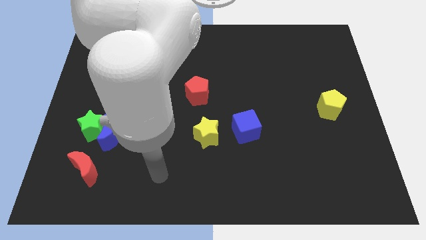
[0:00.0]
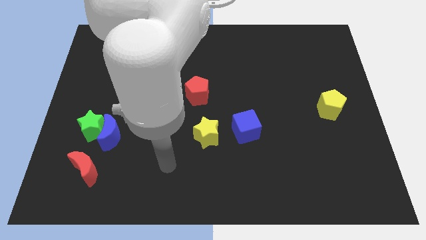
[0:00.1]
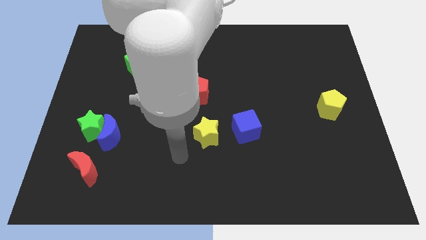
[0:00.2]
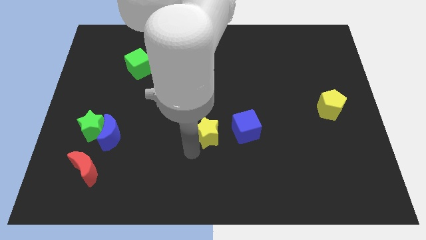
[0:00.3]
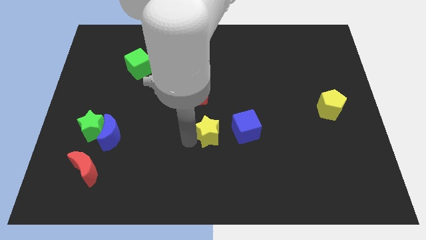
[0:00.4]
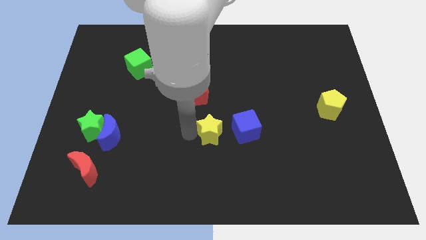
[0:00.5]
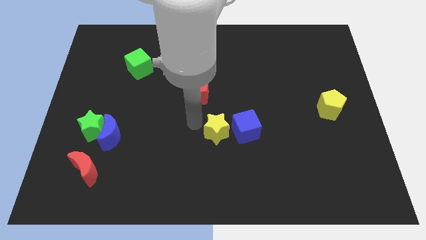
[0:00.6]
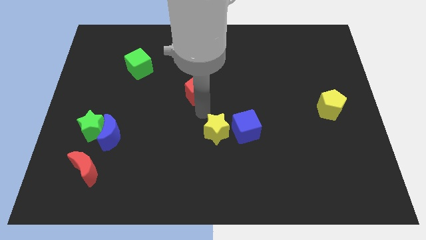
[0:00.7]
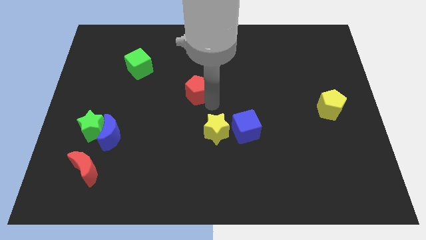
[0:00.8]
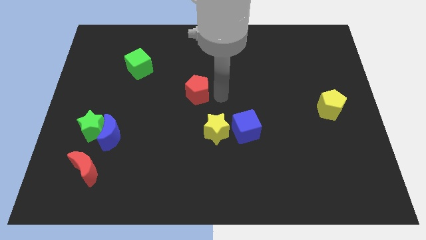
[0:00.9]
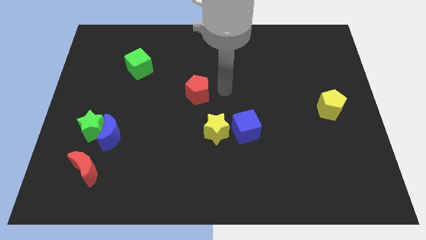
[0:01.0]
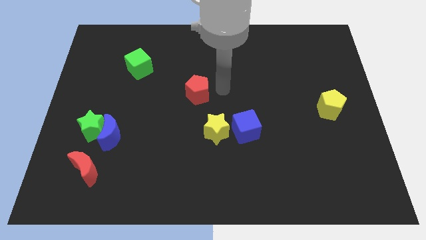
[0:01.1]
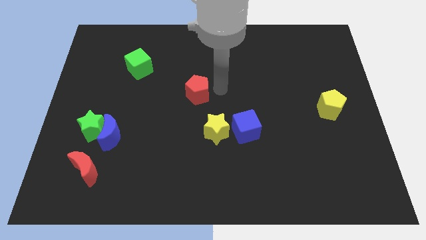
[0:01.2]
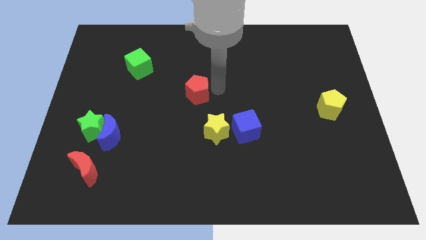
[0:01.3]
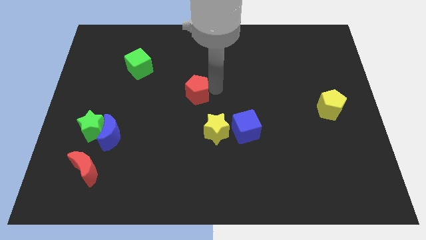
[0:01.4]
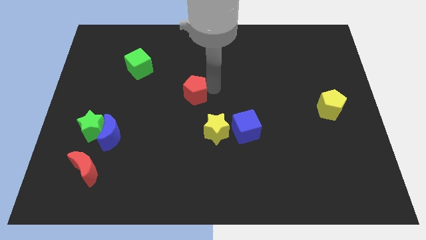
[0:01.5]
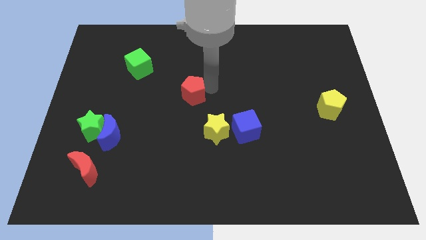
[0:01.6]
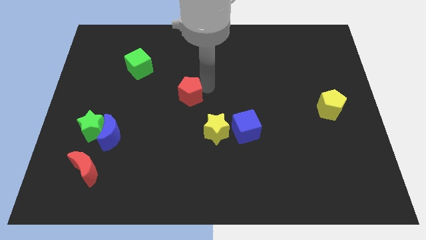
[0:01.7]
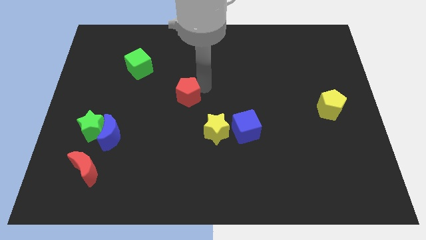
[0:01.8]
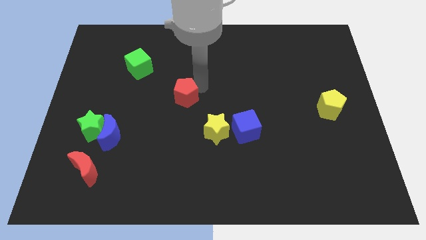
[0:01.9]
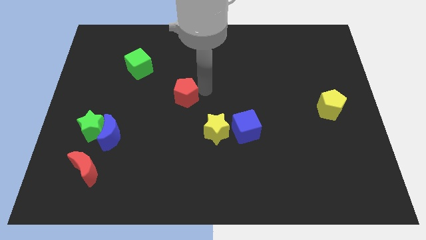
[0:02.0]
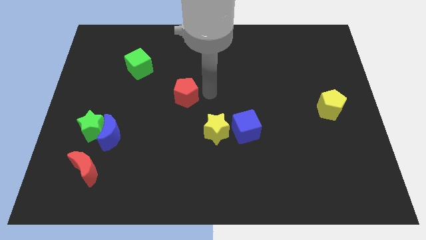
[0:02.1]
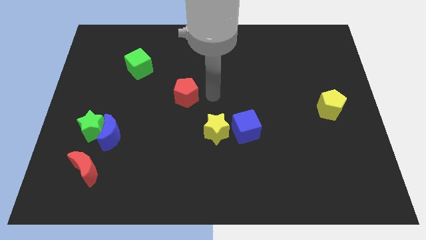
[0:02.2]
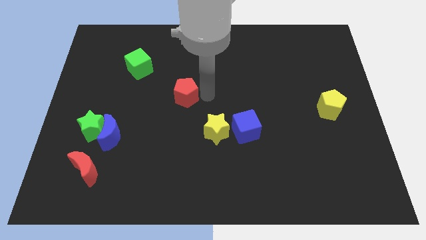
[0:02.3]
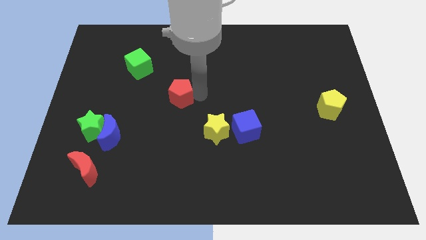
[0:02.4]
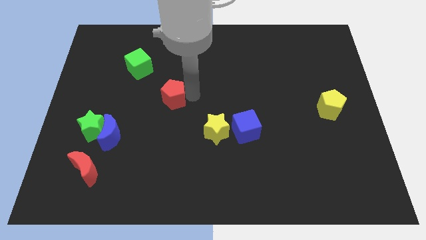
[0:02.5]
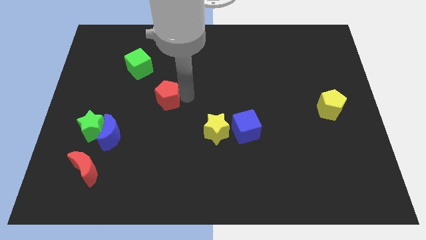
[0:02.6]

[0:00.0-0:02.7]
push the red pentagon a little left

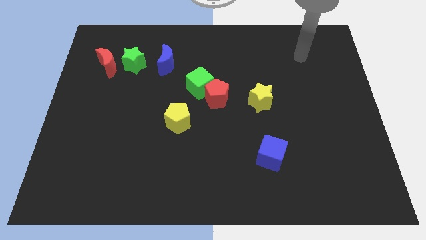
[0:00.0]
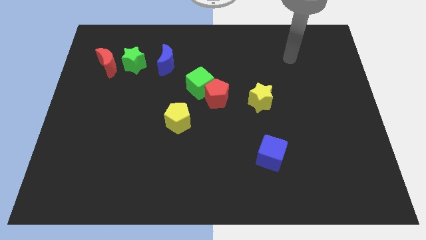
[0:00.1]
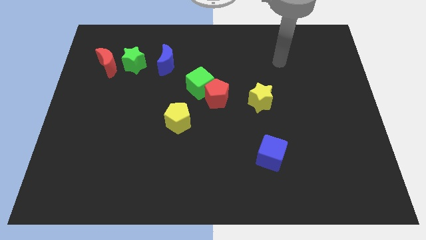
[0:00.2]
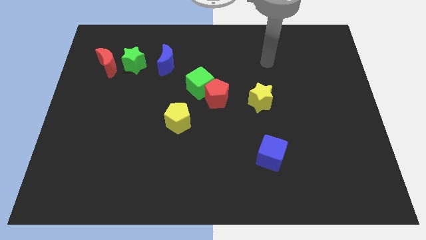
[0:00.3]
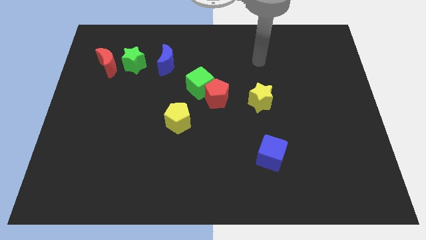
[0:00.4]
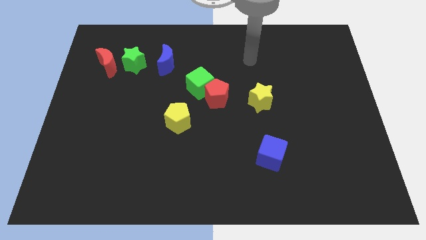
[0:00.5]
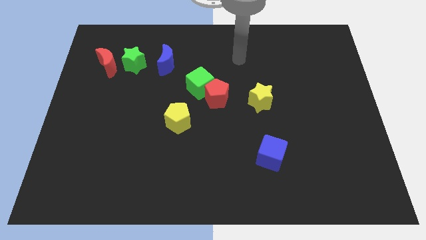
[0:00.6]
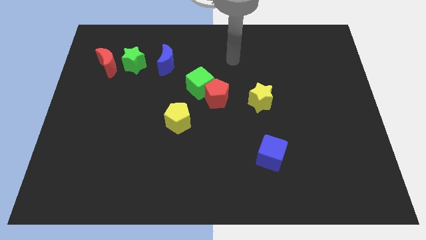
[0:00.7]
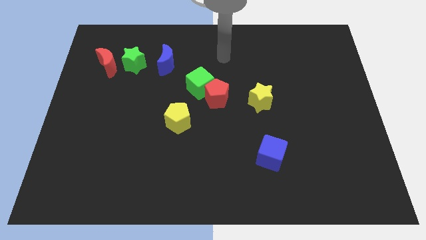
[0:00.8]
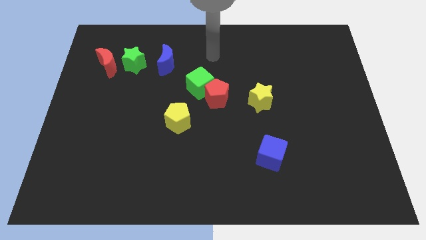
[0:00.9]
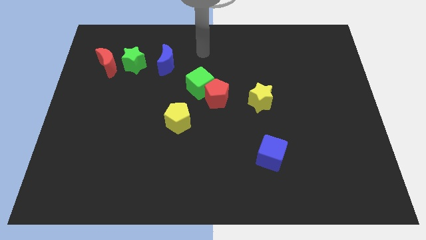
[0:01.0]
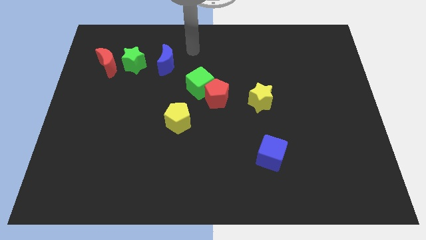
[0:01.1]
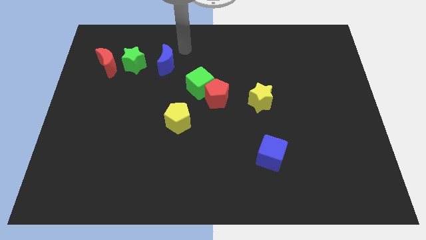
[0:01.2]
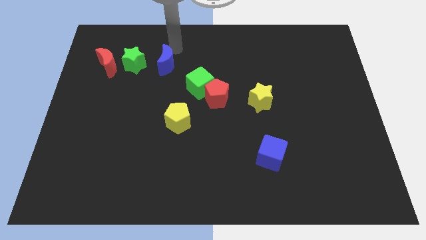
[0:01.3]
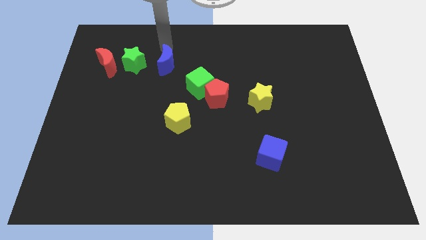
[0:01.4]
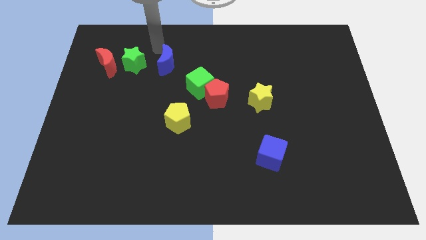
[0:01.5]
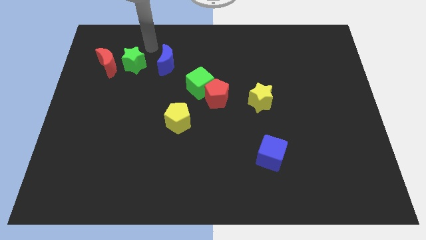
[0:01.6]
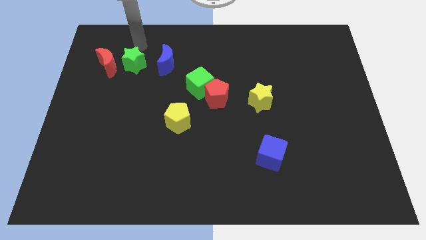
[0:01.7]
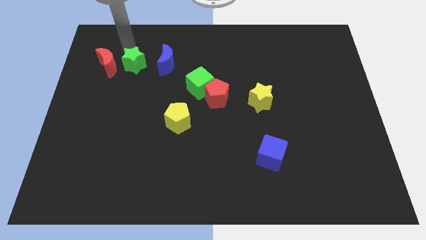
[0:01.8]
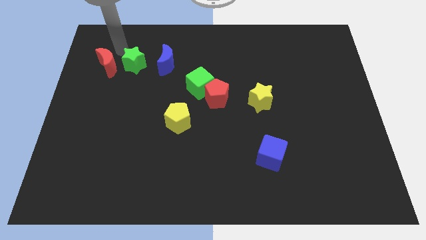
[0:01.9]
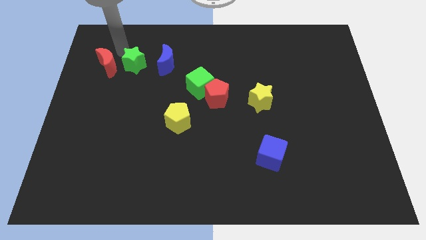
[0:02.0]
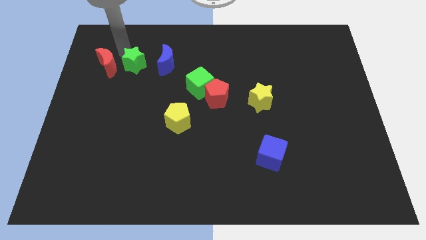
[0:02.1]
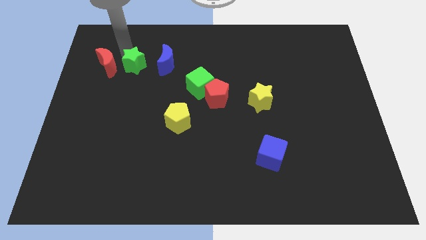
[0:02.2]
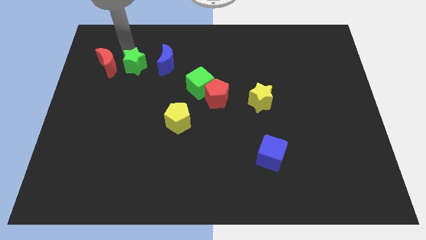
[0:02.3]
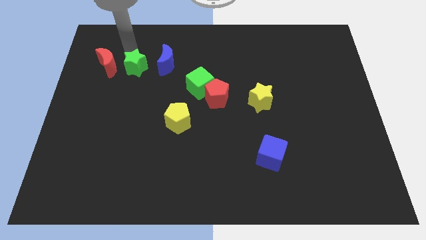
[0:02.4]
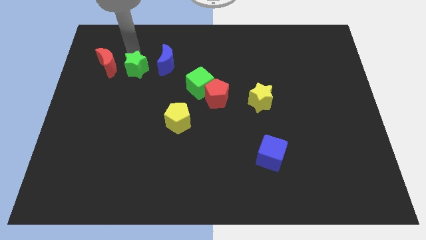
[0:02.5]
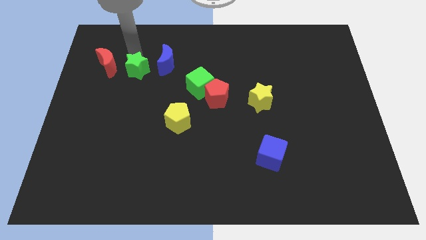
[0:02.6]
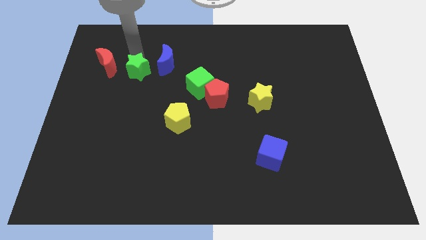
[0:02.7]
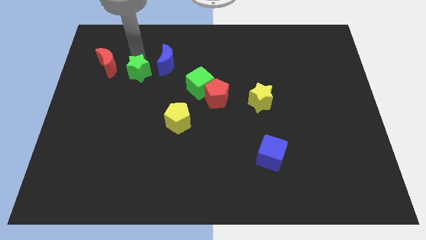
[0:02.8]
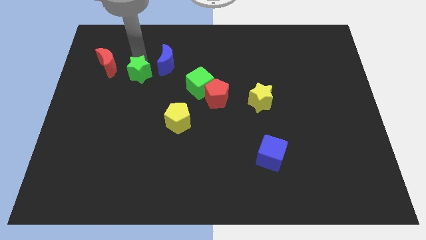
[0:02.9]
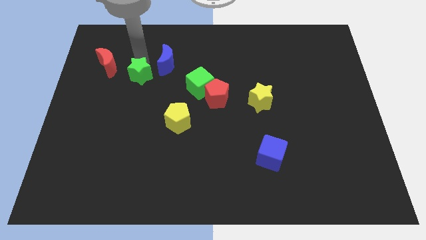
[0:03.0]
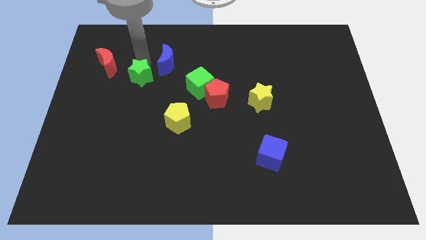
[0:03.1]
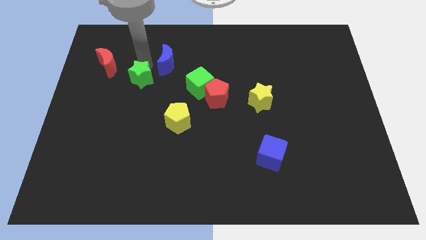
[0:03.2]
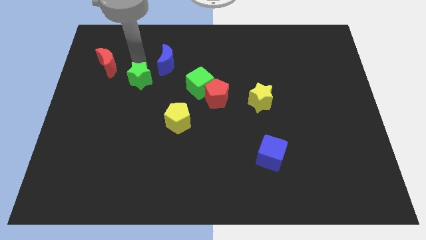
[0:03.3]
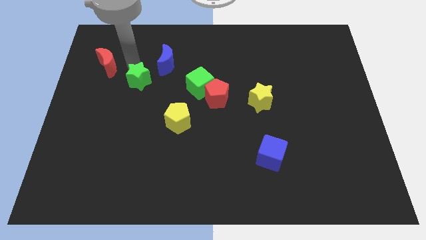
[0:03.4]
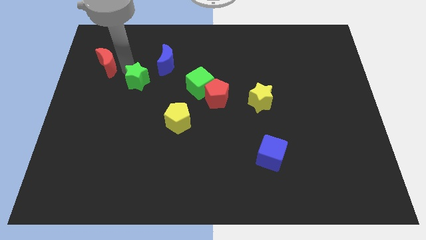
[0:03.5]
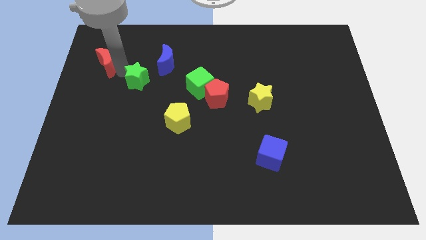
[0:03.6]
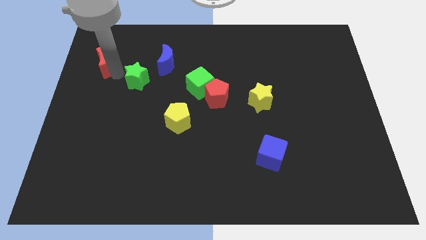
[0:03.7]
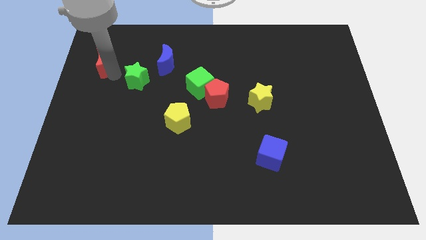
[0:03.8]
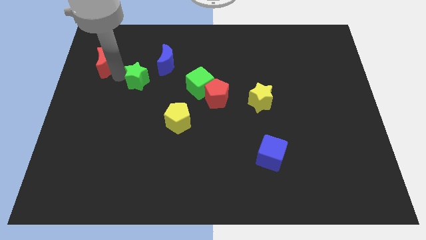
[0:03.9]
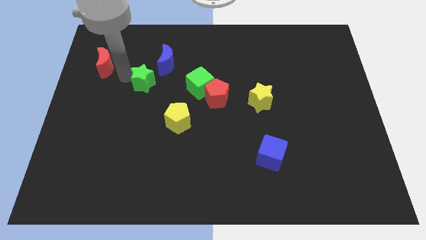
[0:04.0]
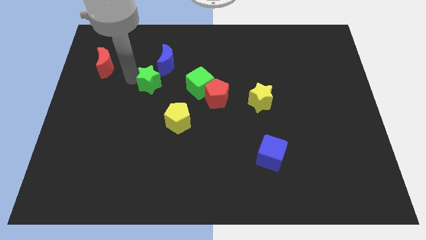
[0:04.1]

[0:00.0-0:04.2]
slide the green star diagonally down and to the right a little bit

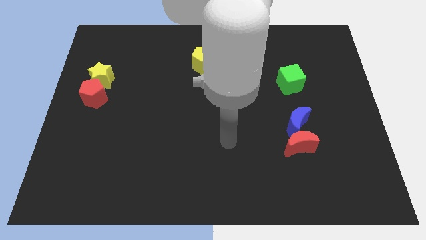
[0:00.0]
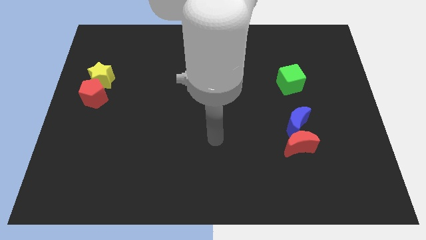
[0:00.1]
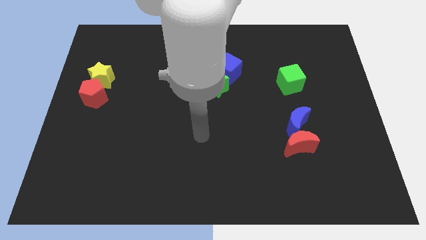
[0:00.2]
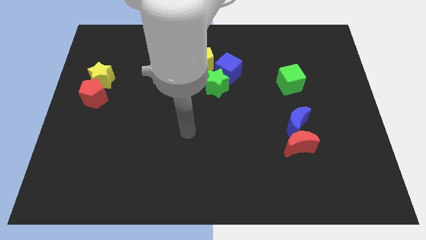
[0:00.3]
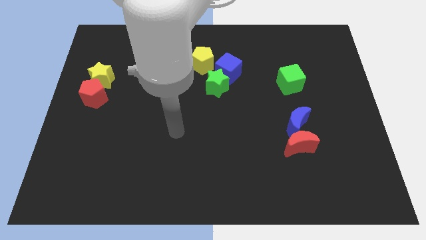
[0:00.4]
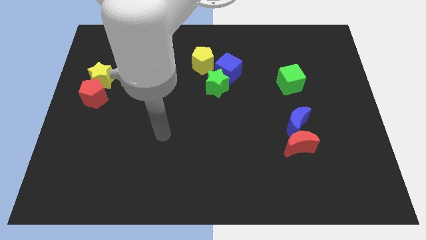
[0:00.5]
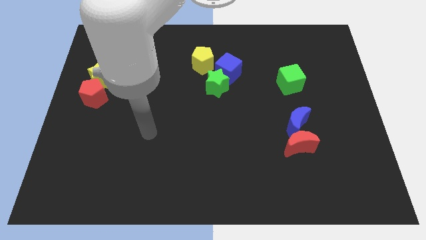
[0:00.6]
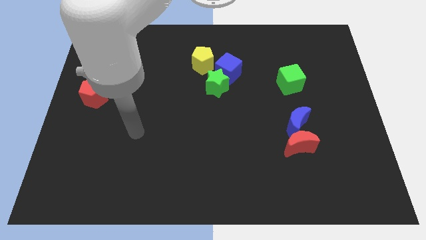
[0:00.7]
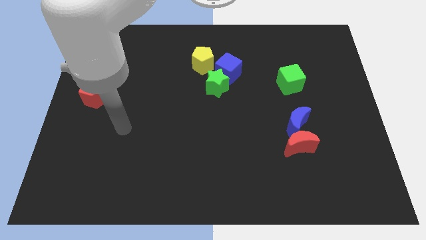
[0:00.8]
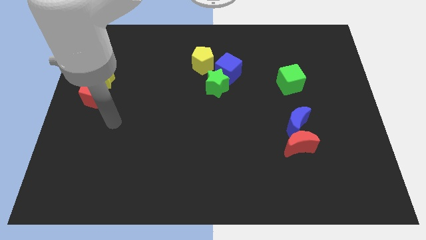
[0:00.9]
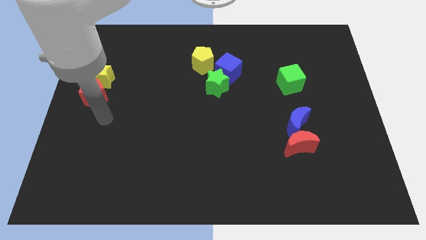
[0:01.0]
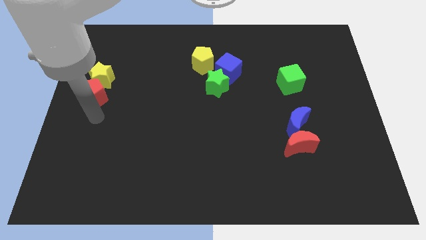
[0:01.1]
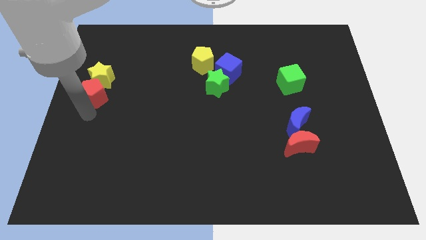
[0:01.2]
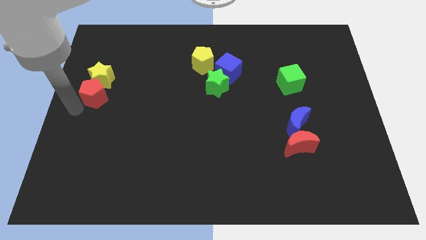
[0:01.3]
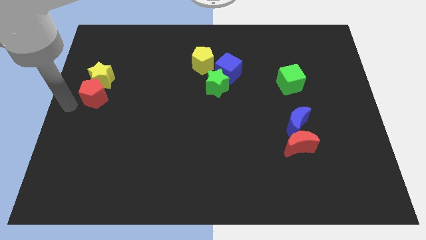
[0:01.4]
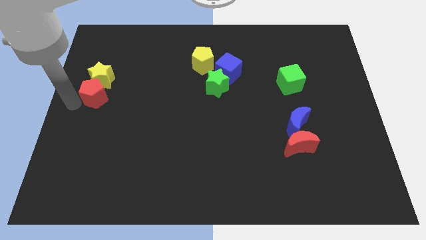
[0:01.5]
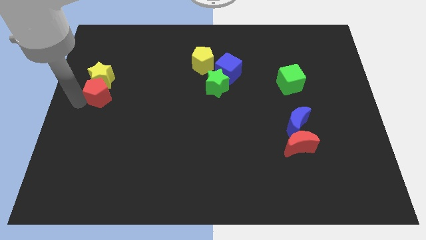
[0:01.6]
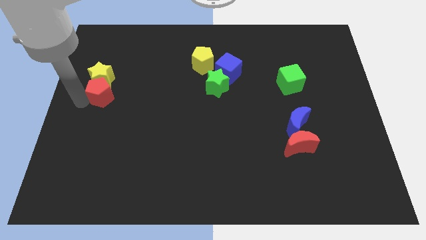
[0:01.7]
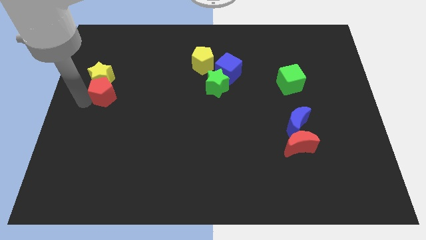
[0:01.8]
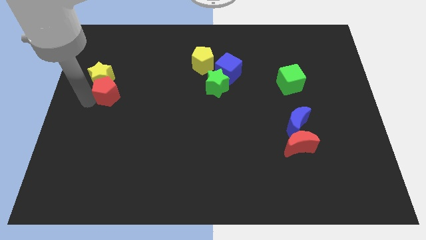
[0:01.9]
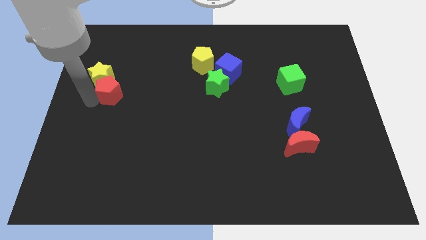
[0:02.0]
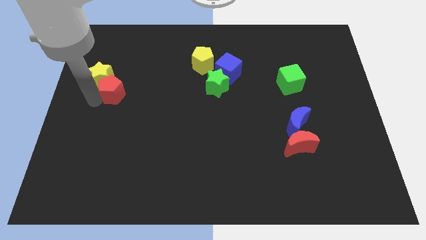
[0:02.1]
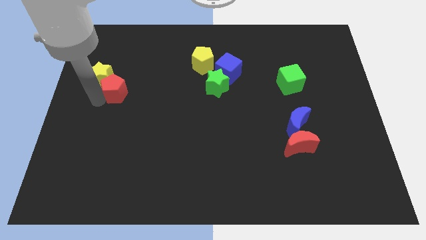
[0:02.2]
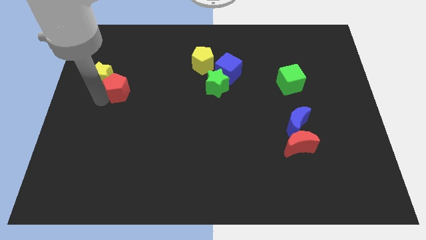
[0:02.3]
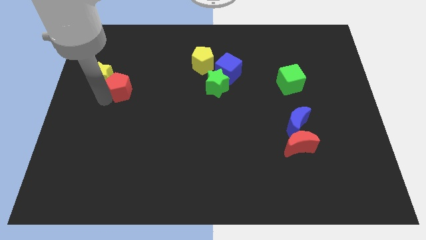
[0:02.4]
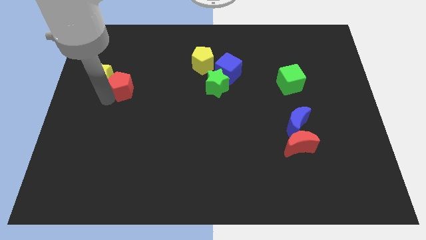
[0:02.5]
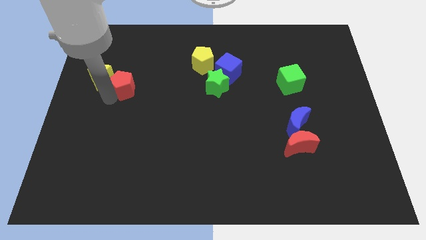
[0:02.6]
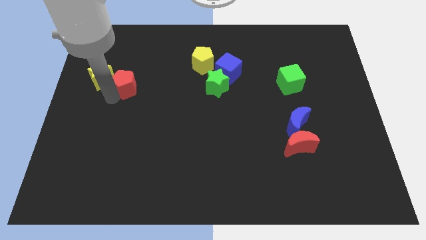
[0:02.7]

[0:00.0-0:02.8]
push the red pentagon up and right a little
